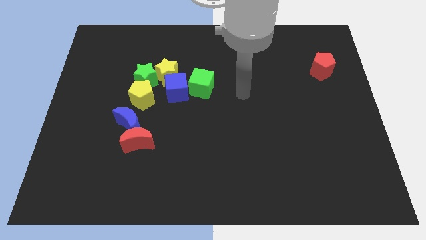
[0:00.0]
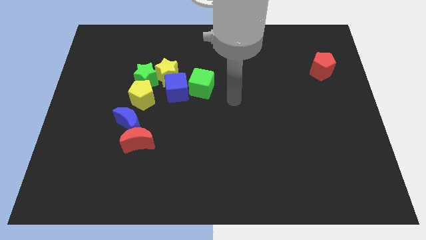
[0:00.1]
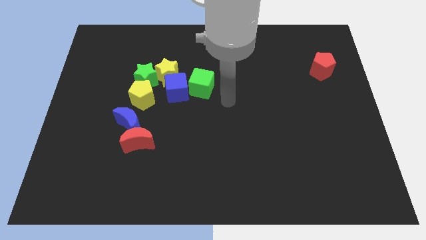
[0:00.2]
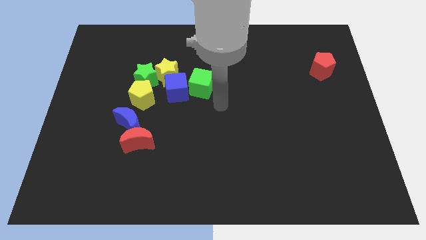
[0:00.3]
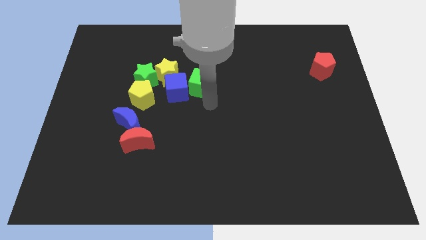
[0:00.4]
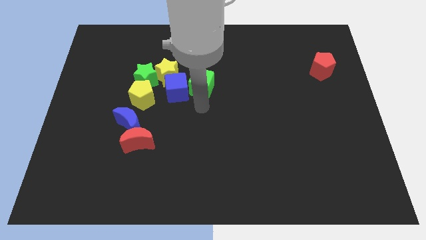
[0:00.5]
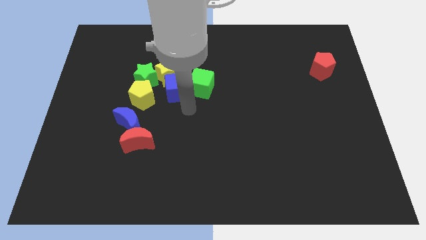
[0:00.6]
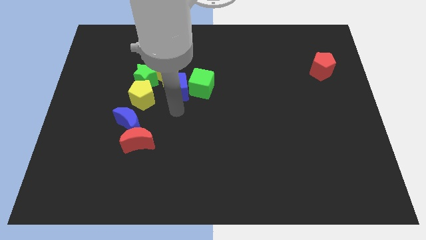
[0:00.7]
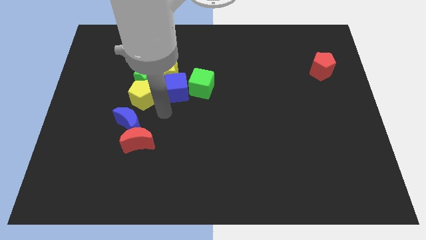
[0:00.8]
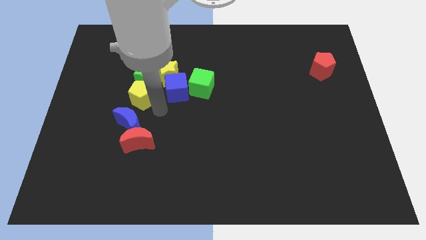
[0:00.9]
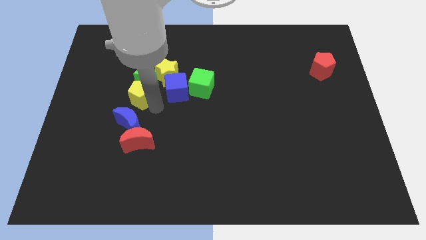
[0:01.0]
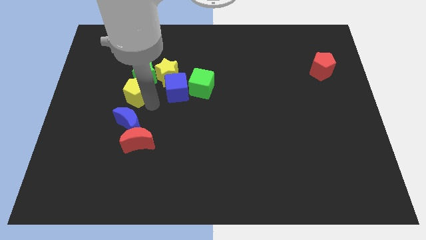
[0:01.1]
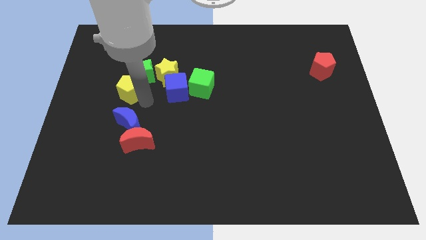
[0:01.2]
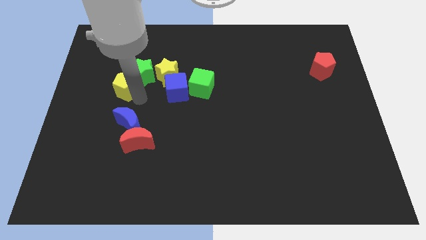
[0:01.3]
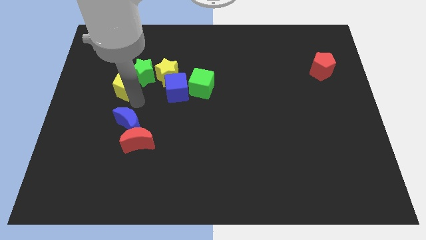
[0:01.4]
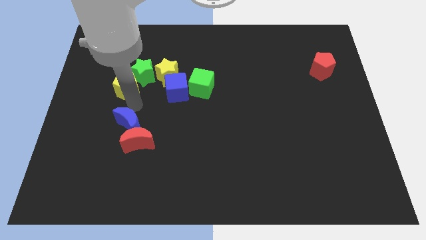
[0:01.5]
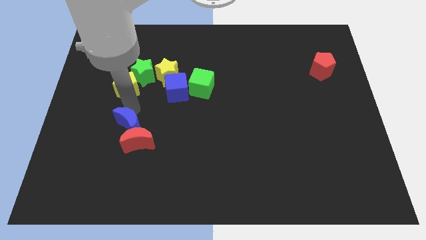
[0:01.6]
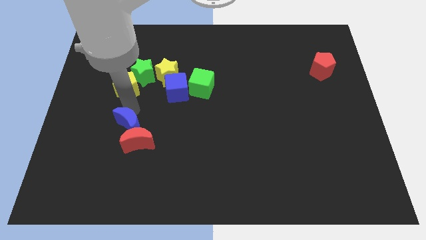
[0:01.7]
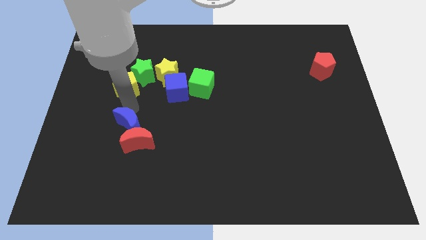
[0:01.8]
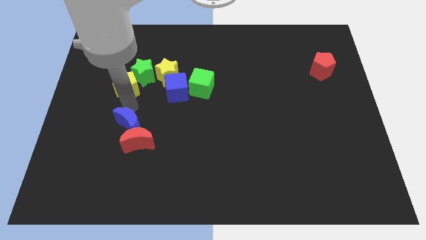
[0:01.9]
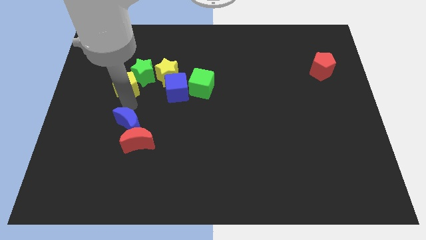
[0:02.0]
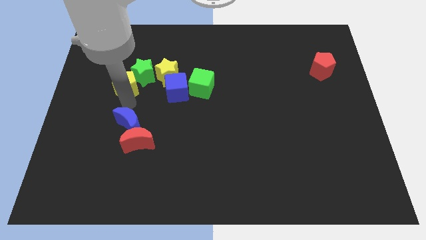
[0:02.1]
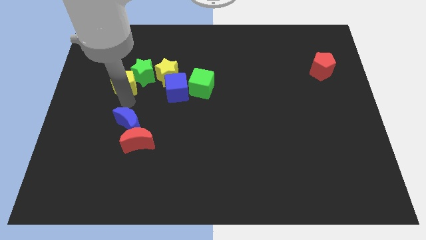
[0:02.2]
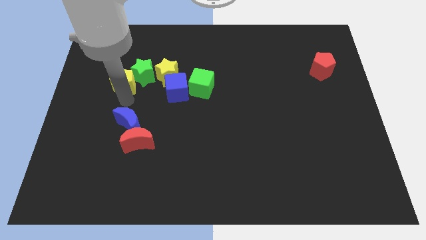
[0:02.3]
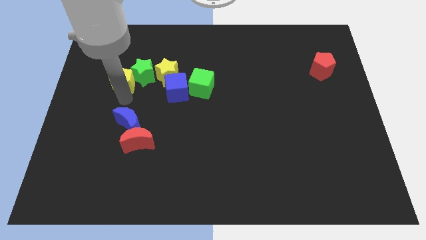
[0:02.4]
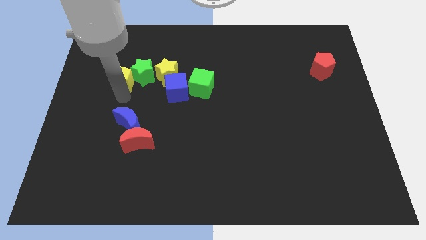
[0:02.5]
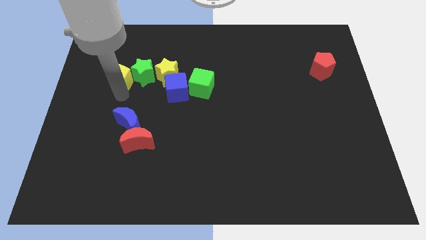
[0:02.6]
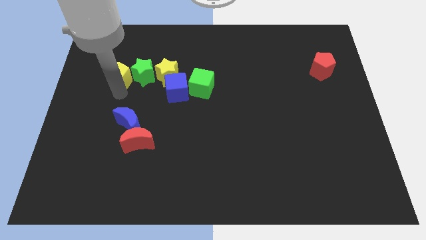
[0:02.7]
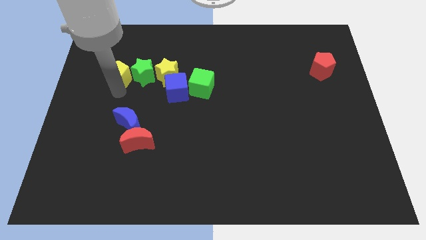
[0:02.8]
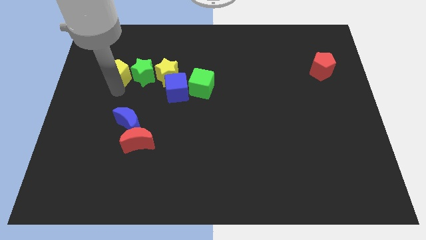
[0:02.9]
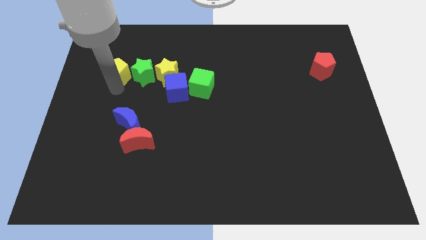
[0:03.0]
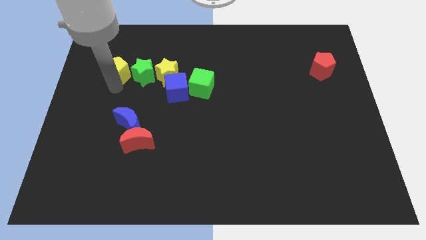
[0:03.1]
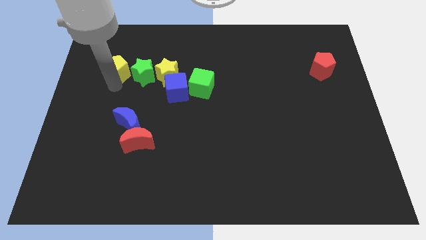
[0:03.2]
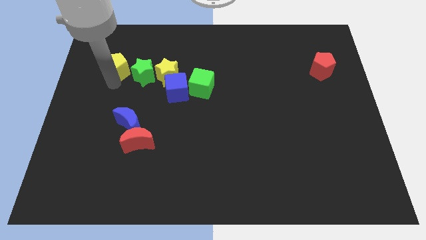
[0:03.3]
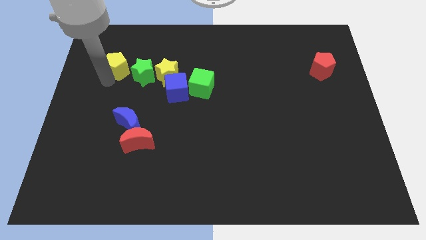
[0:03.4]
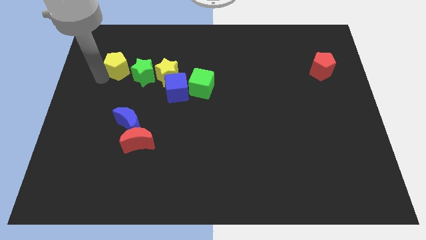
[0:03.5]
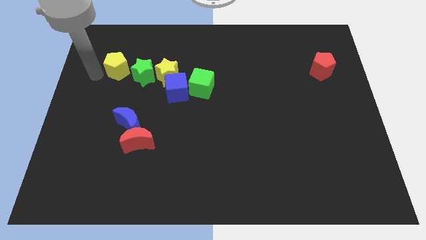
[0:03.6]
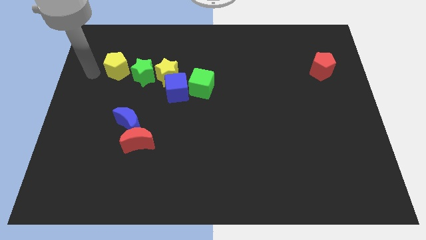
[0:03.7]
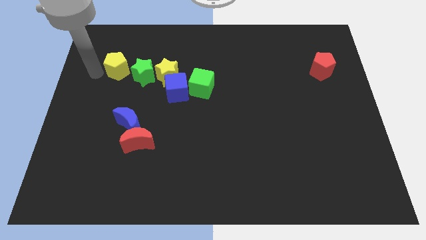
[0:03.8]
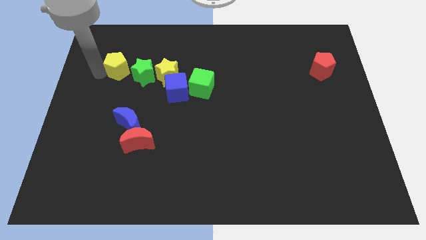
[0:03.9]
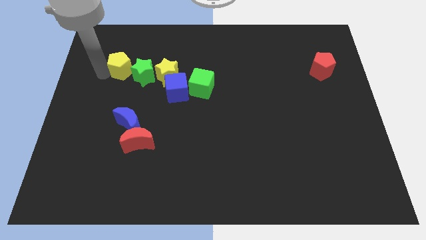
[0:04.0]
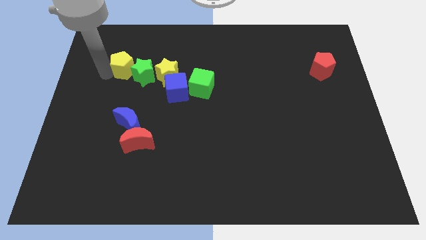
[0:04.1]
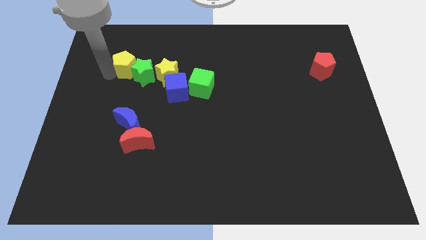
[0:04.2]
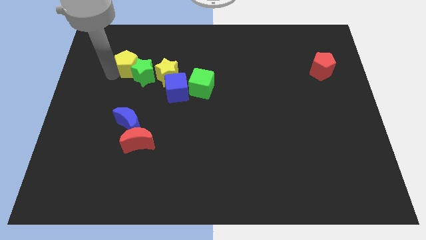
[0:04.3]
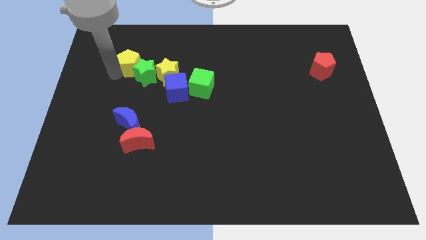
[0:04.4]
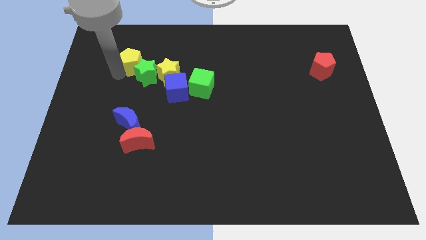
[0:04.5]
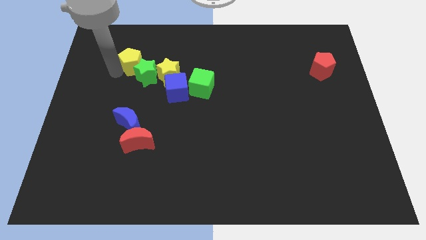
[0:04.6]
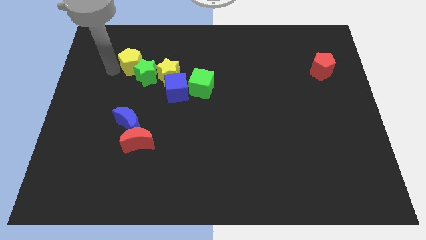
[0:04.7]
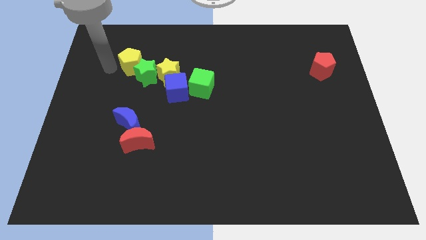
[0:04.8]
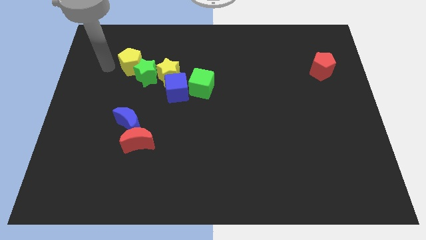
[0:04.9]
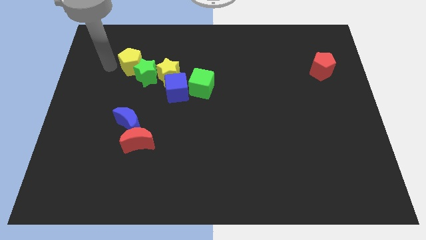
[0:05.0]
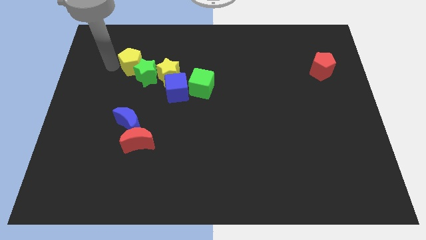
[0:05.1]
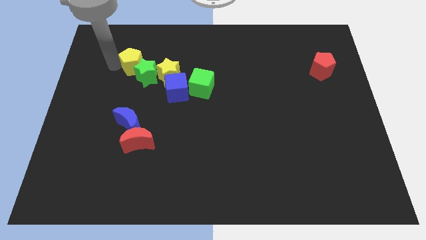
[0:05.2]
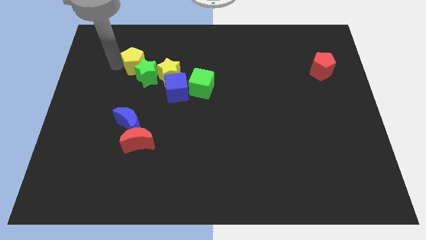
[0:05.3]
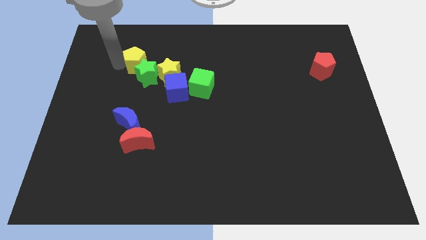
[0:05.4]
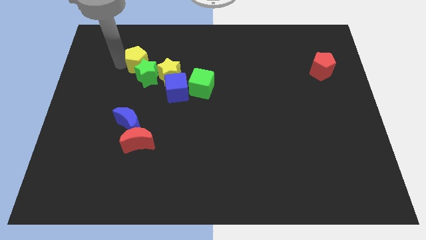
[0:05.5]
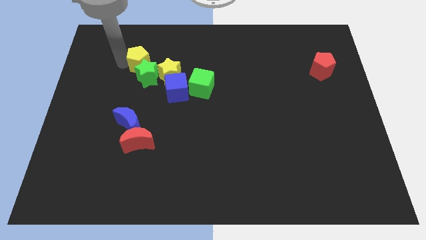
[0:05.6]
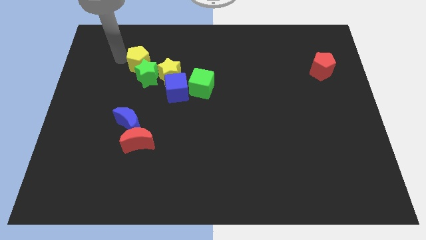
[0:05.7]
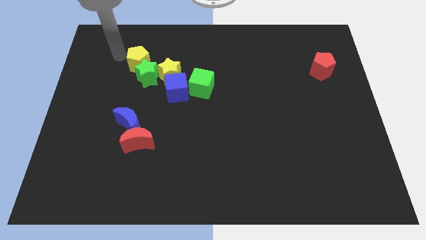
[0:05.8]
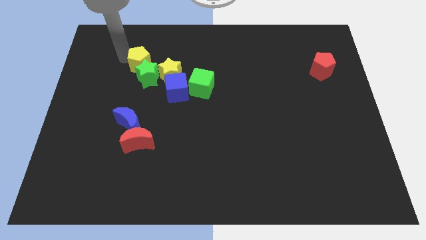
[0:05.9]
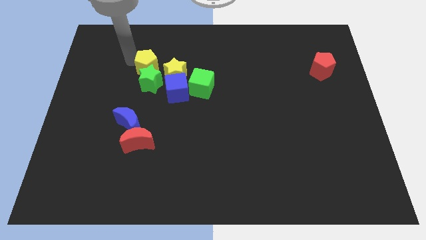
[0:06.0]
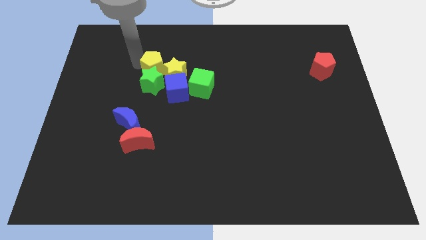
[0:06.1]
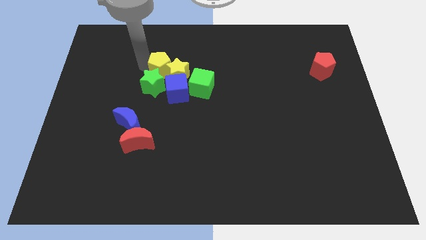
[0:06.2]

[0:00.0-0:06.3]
push the yellow pentagon towards the yellow star

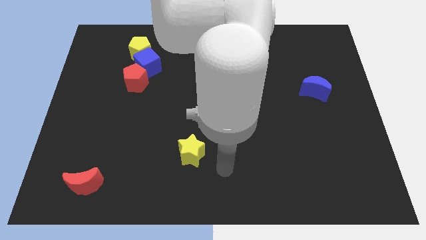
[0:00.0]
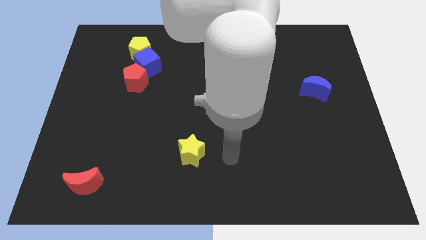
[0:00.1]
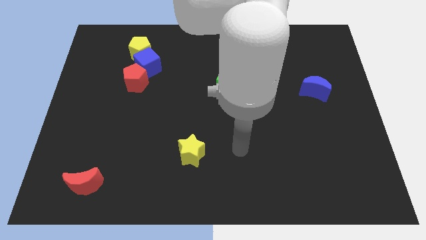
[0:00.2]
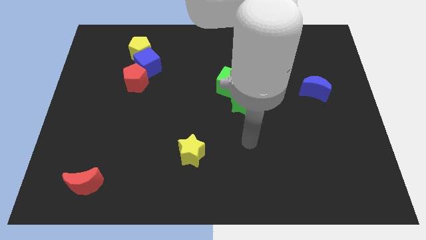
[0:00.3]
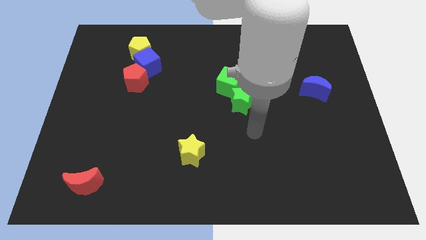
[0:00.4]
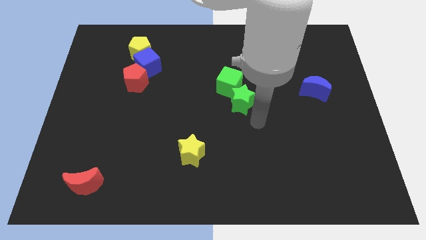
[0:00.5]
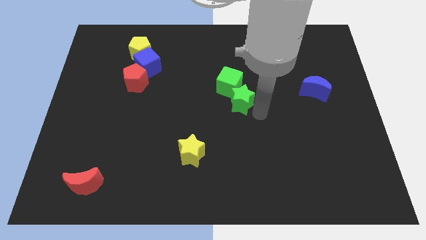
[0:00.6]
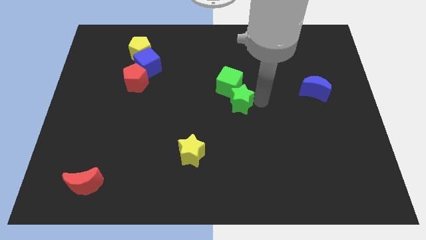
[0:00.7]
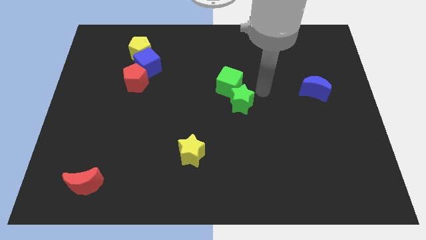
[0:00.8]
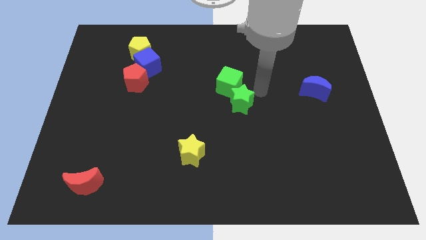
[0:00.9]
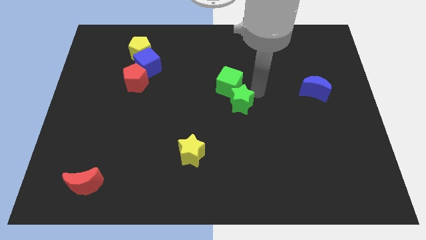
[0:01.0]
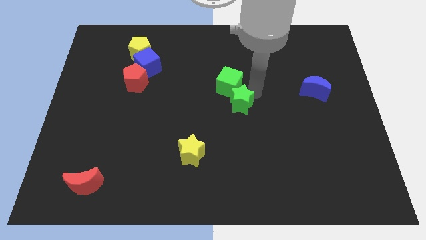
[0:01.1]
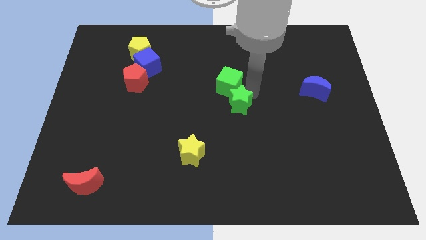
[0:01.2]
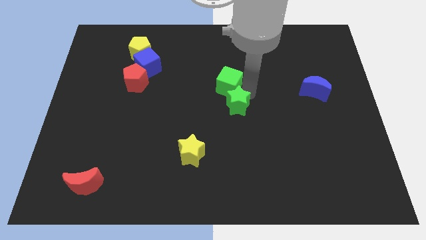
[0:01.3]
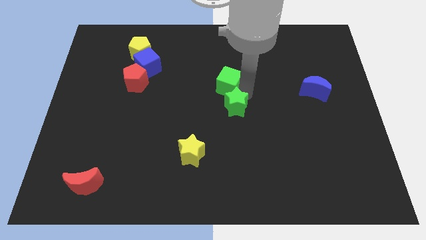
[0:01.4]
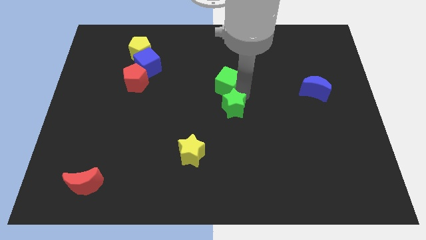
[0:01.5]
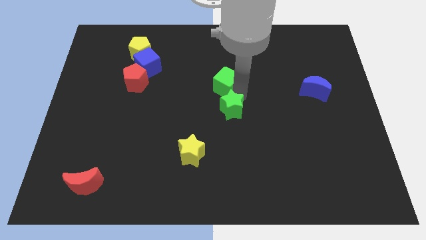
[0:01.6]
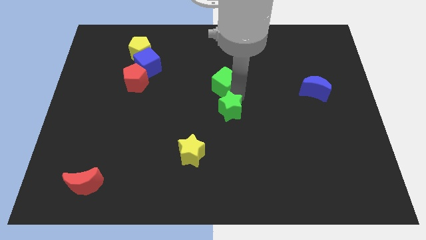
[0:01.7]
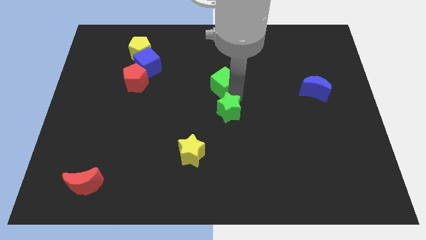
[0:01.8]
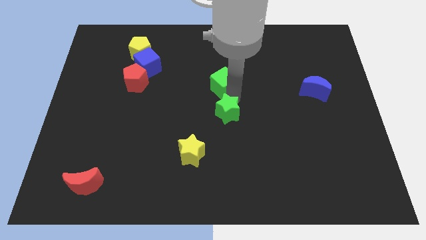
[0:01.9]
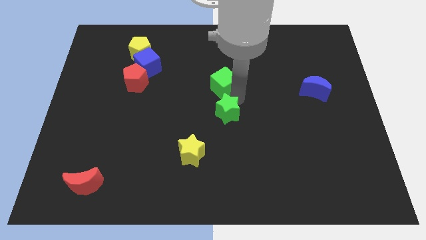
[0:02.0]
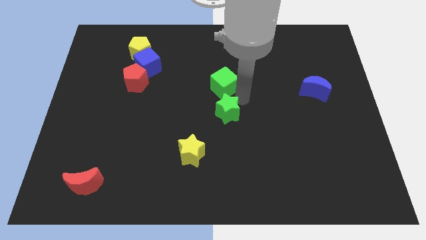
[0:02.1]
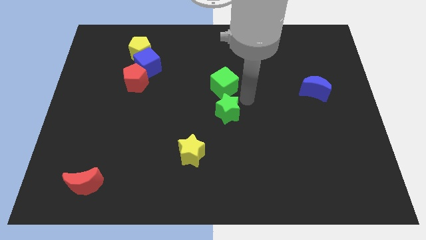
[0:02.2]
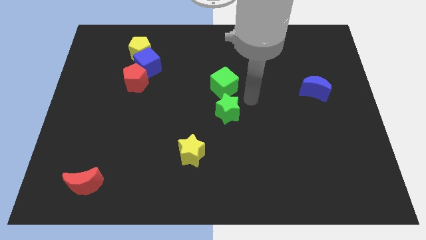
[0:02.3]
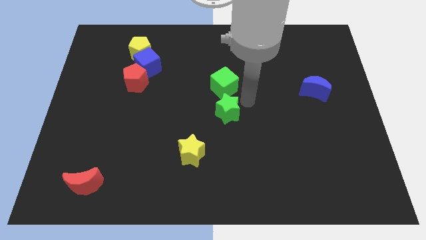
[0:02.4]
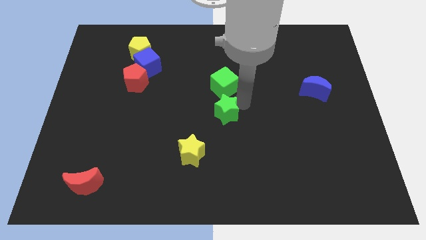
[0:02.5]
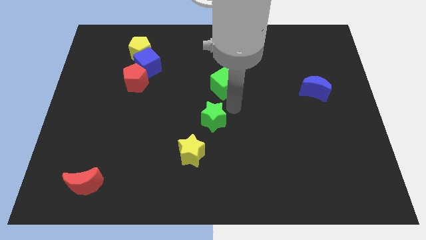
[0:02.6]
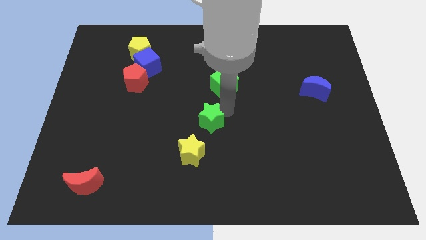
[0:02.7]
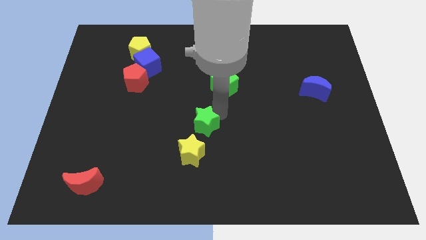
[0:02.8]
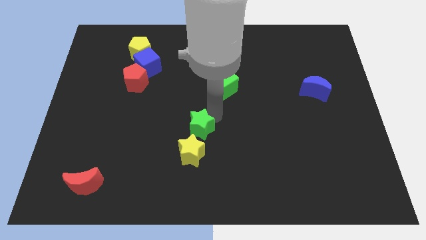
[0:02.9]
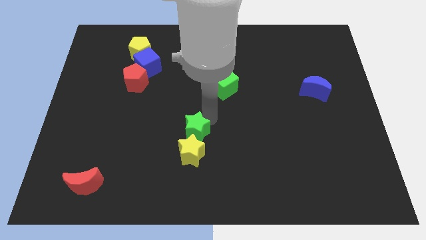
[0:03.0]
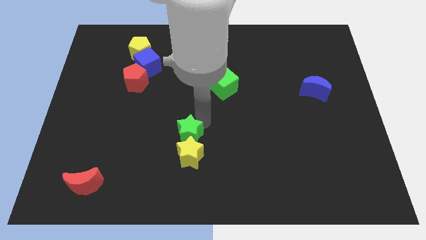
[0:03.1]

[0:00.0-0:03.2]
put the green star close to the yellow star
